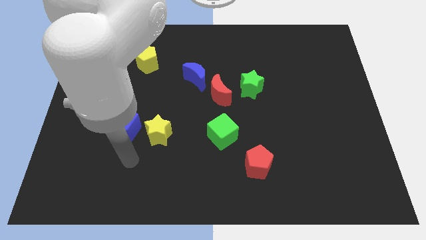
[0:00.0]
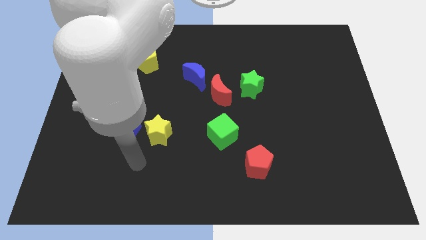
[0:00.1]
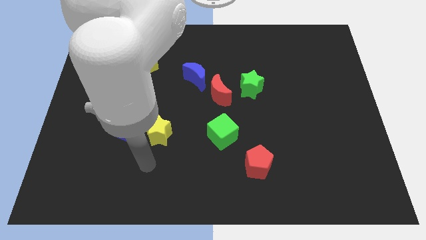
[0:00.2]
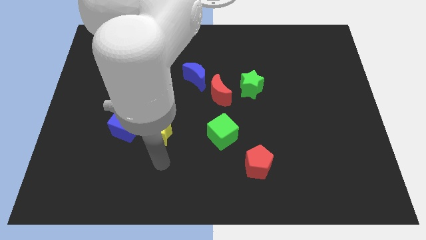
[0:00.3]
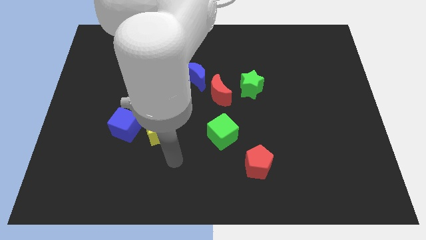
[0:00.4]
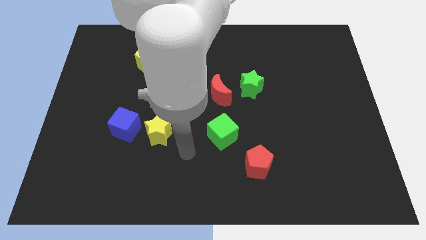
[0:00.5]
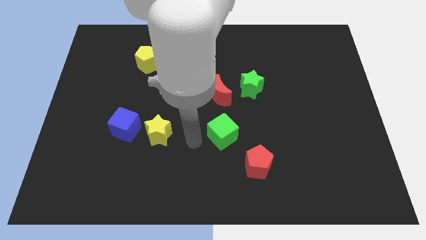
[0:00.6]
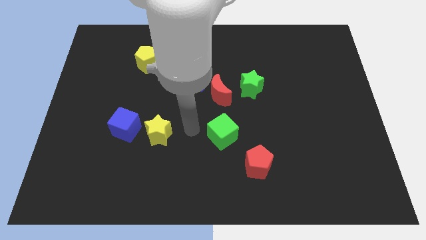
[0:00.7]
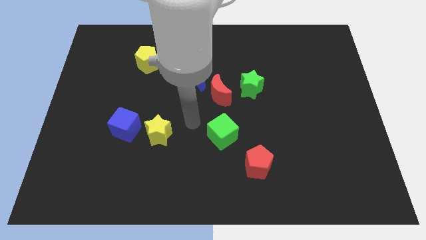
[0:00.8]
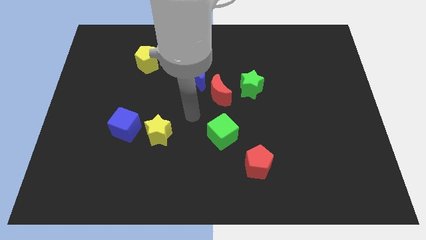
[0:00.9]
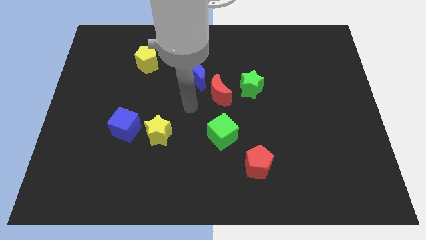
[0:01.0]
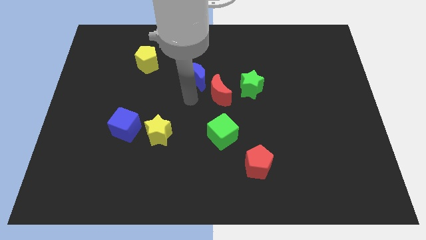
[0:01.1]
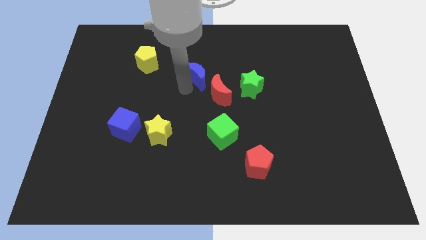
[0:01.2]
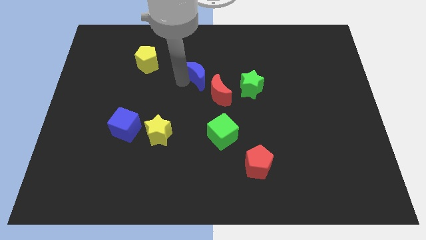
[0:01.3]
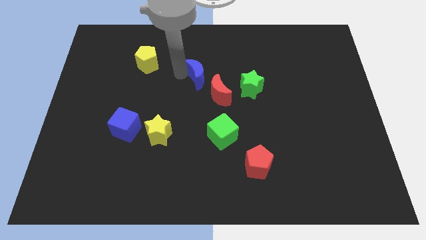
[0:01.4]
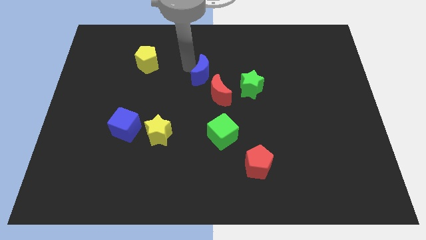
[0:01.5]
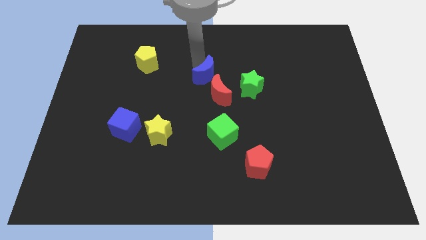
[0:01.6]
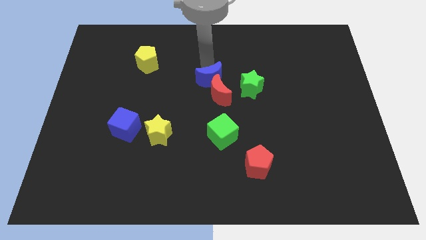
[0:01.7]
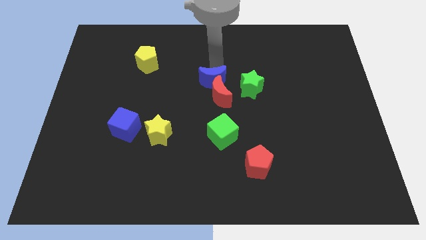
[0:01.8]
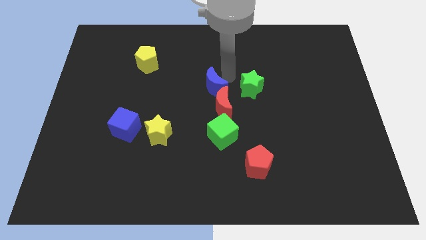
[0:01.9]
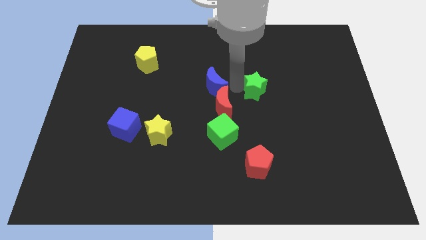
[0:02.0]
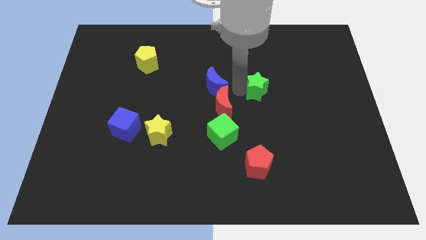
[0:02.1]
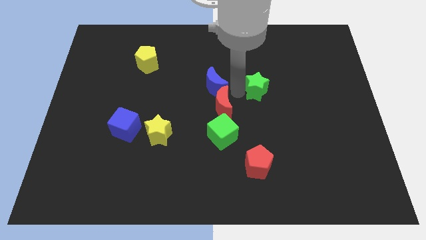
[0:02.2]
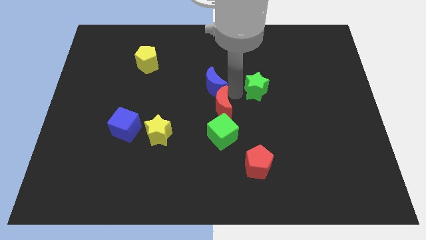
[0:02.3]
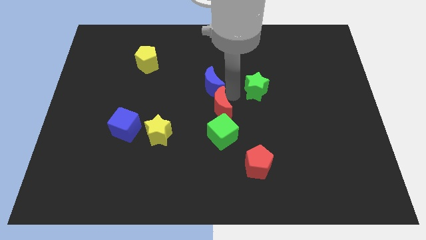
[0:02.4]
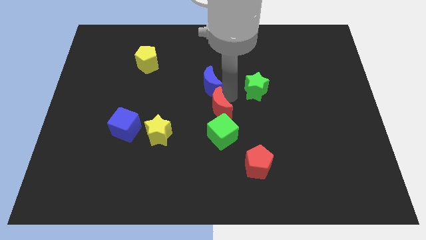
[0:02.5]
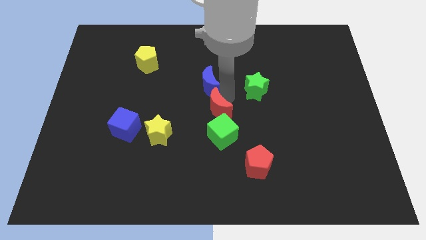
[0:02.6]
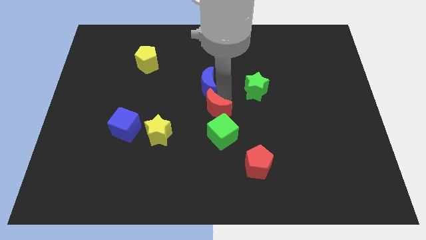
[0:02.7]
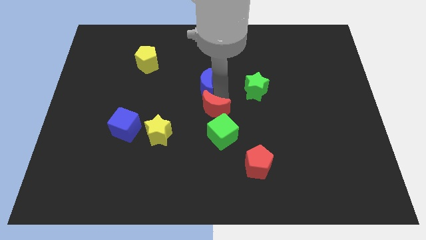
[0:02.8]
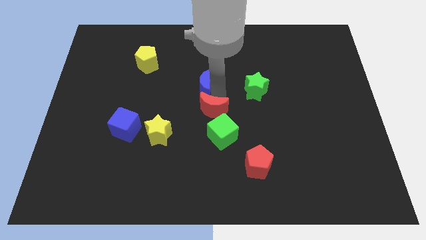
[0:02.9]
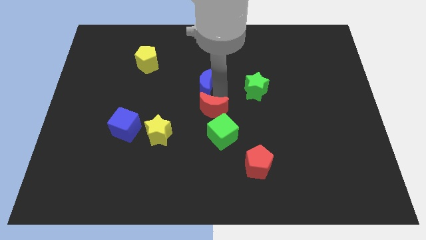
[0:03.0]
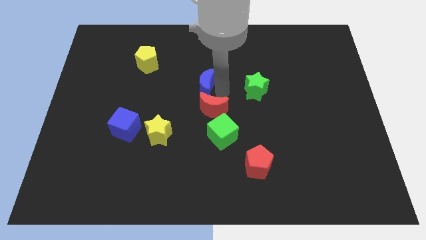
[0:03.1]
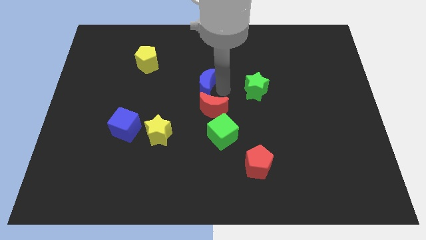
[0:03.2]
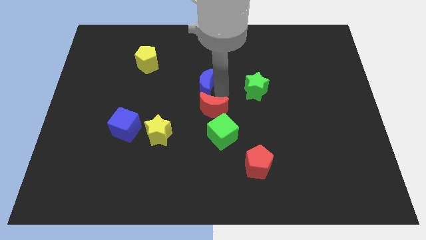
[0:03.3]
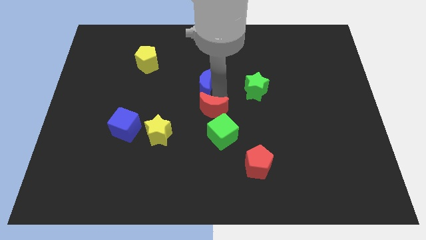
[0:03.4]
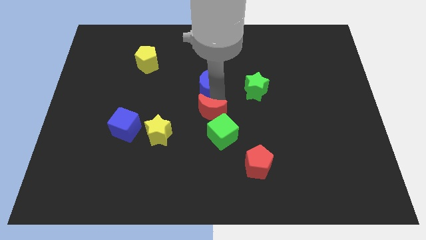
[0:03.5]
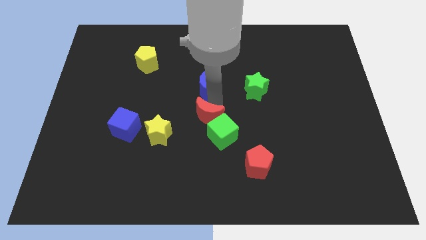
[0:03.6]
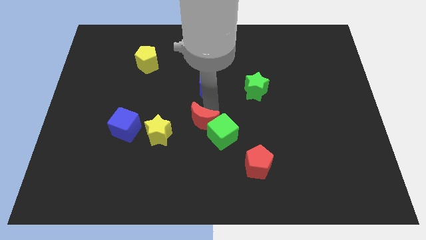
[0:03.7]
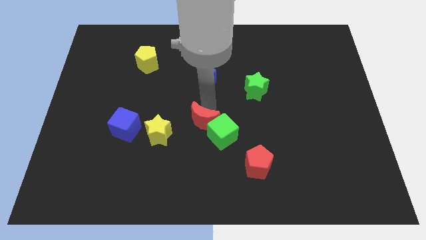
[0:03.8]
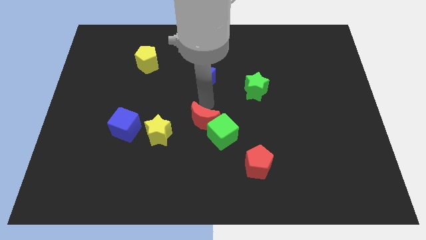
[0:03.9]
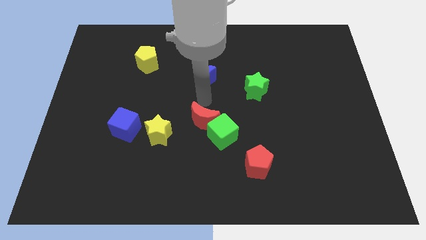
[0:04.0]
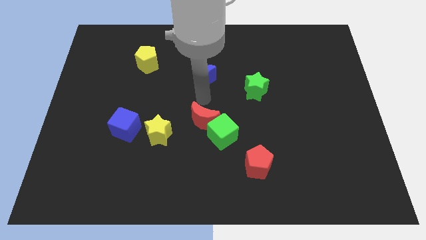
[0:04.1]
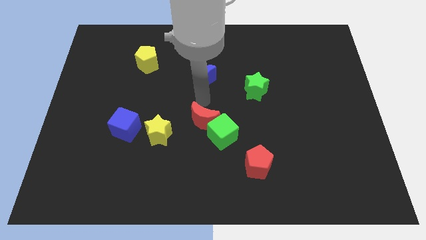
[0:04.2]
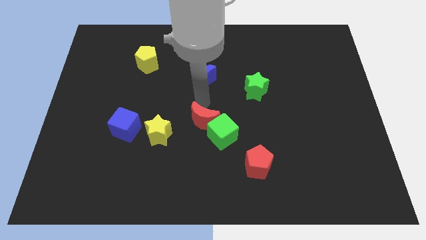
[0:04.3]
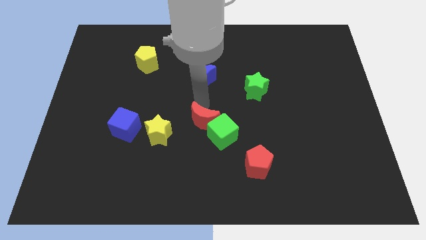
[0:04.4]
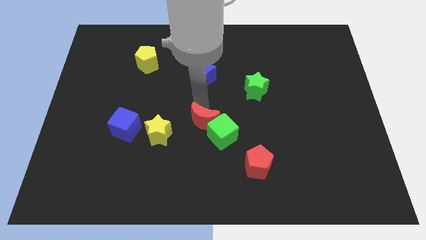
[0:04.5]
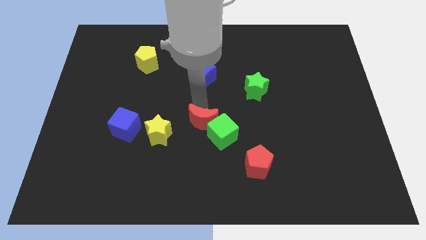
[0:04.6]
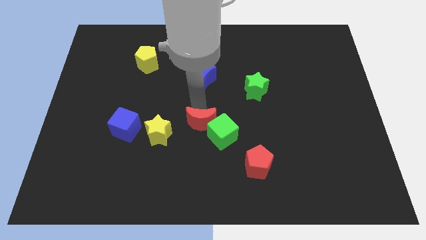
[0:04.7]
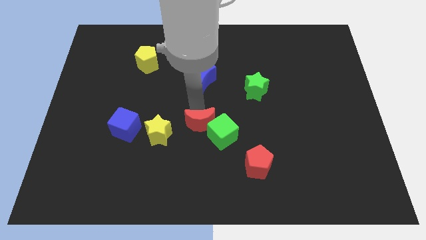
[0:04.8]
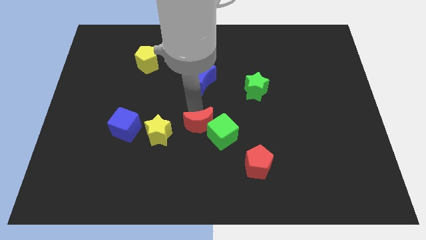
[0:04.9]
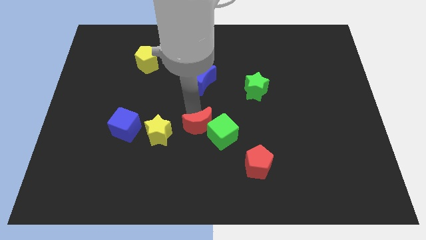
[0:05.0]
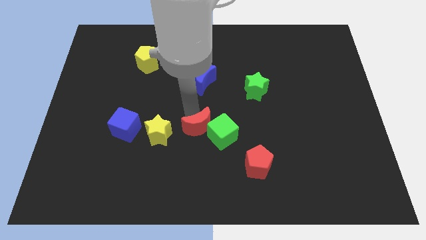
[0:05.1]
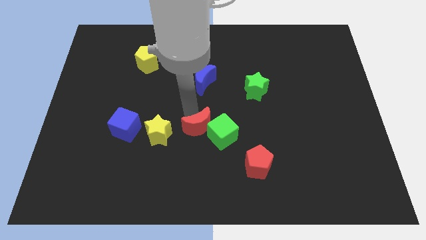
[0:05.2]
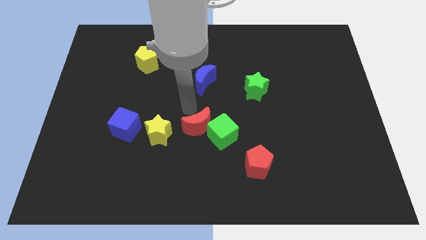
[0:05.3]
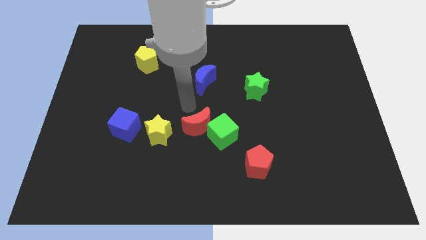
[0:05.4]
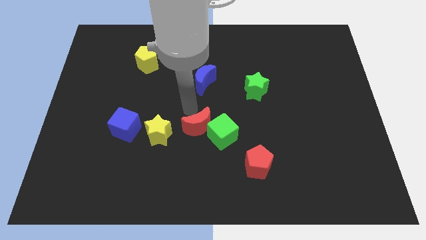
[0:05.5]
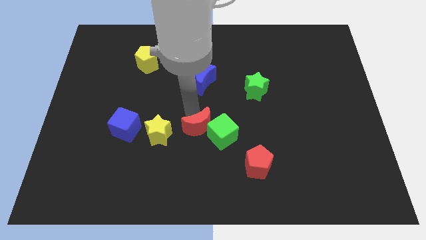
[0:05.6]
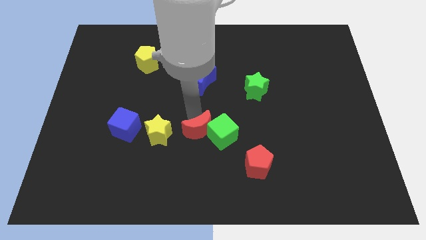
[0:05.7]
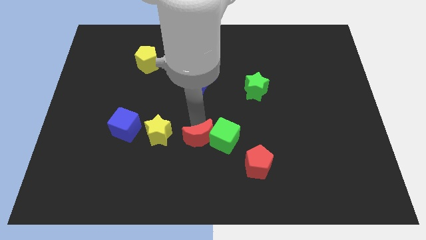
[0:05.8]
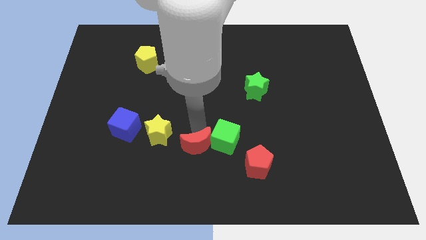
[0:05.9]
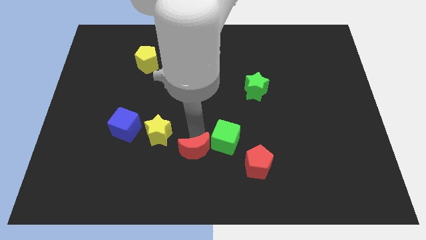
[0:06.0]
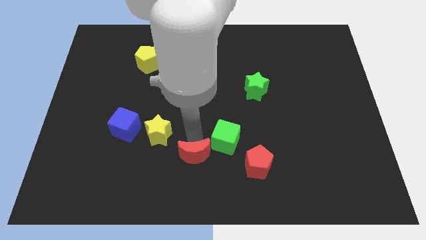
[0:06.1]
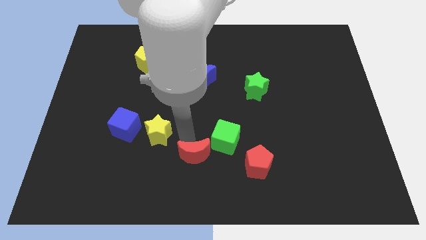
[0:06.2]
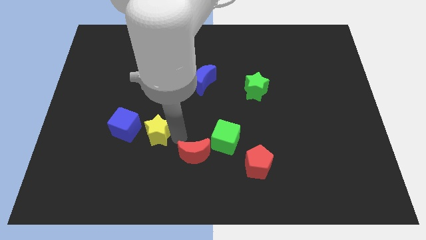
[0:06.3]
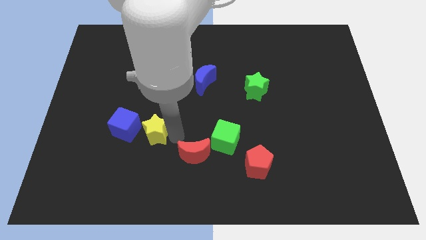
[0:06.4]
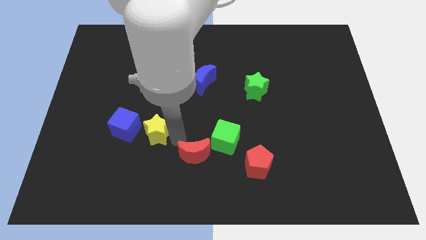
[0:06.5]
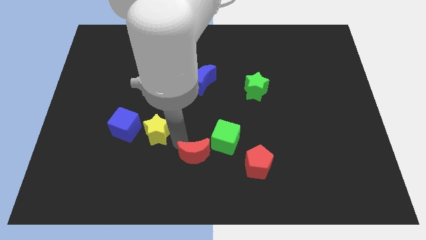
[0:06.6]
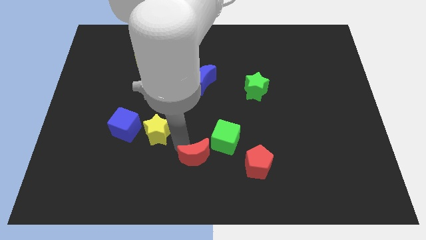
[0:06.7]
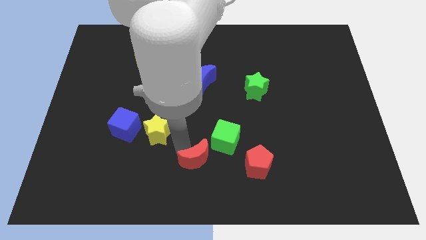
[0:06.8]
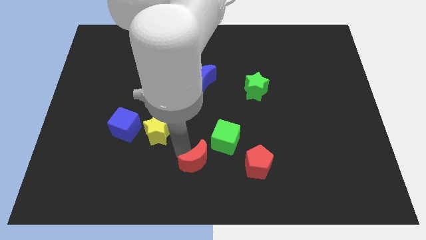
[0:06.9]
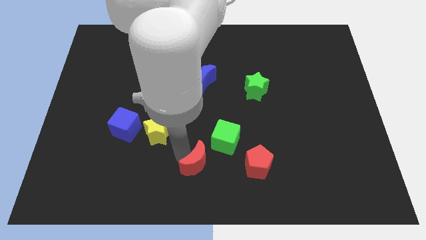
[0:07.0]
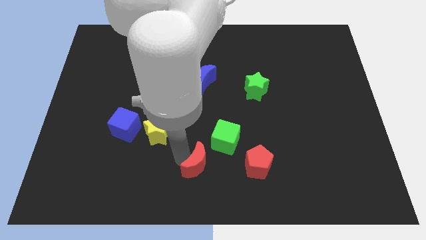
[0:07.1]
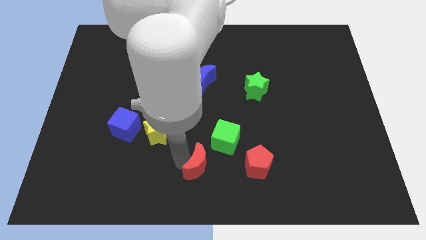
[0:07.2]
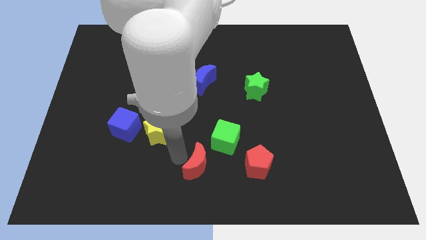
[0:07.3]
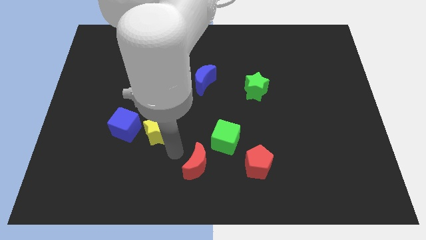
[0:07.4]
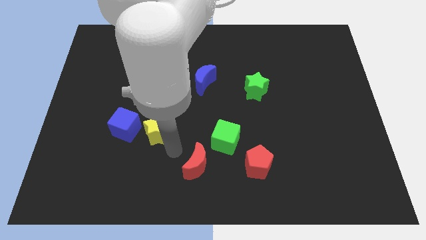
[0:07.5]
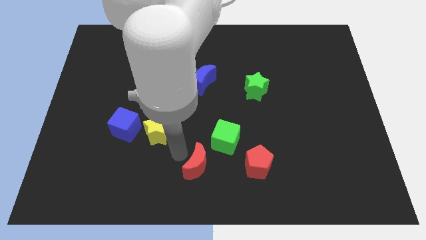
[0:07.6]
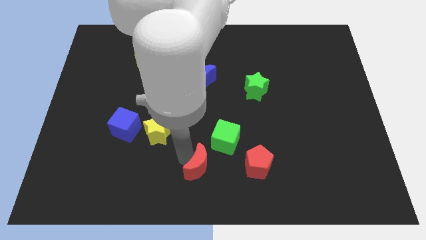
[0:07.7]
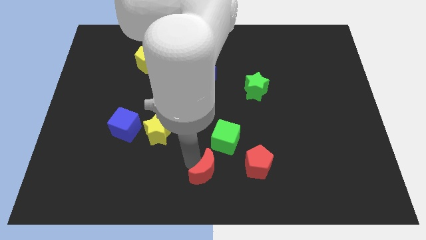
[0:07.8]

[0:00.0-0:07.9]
slide the red moon to the bottom of the green cube
